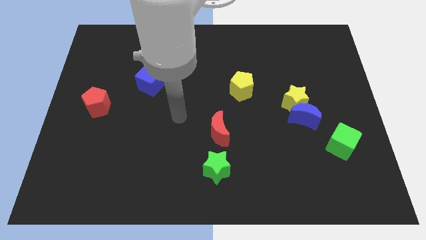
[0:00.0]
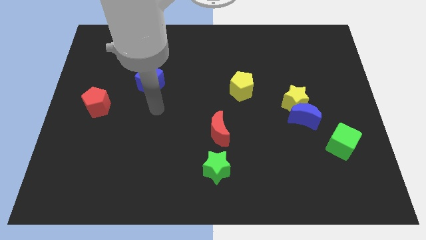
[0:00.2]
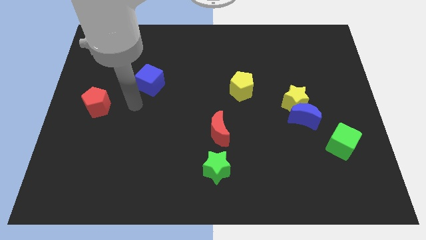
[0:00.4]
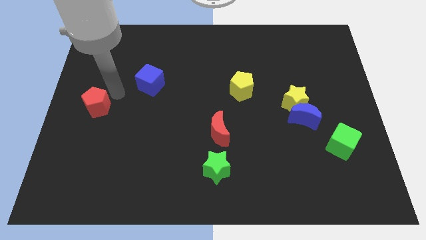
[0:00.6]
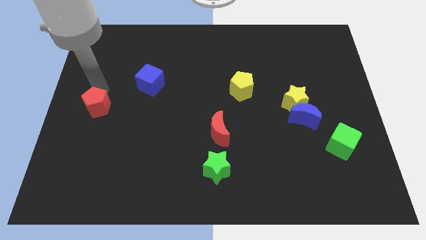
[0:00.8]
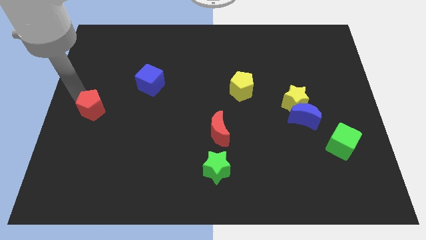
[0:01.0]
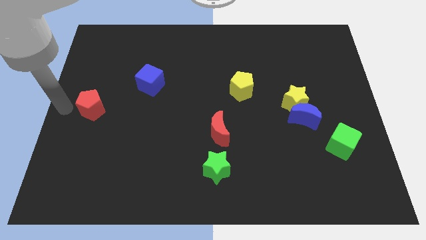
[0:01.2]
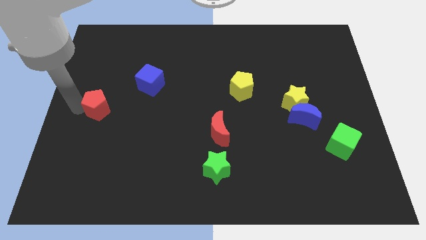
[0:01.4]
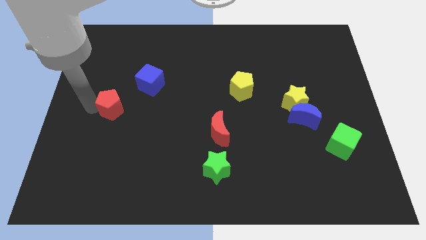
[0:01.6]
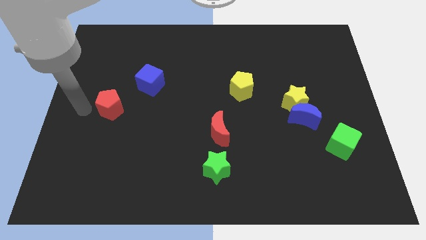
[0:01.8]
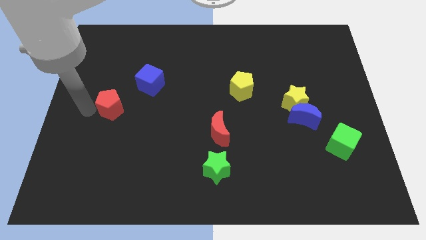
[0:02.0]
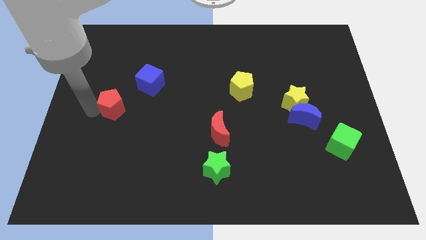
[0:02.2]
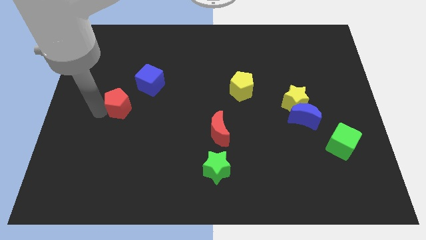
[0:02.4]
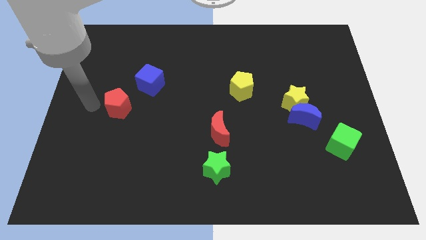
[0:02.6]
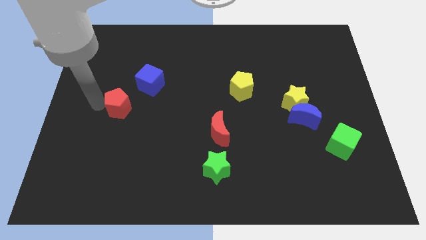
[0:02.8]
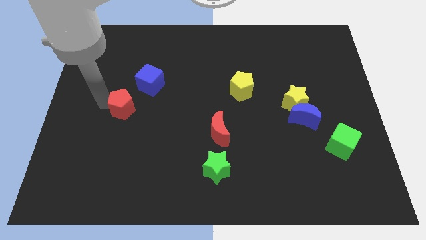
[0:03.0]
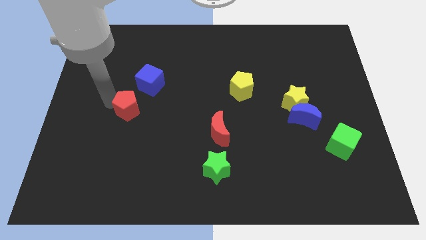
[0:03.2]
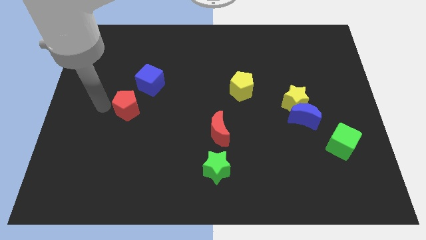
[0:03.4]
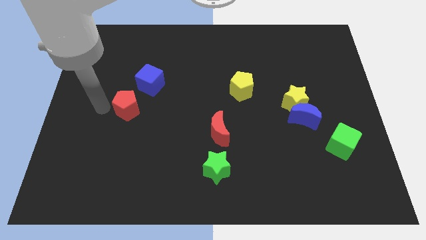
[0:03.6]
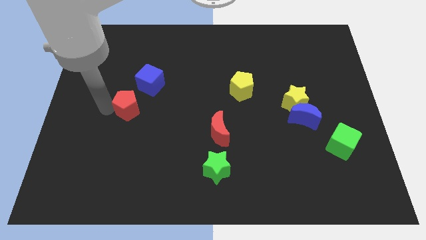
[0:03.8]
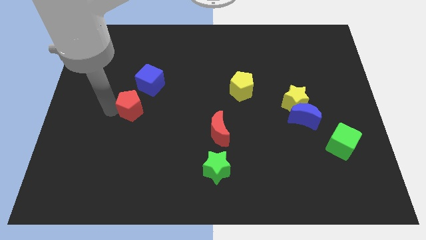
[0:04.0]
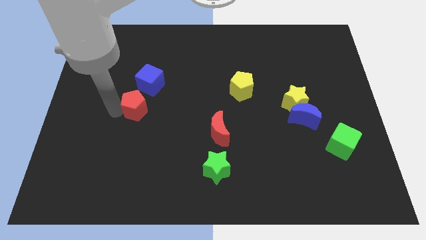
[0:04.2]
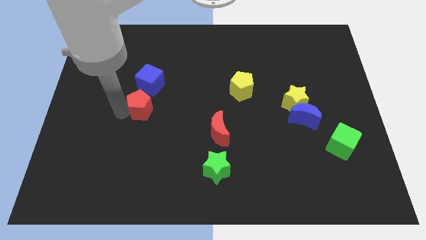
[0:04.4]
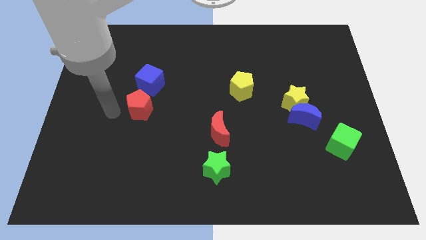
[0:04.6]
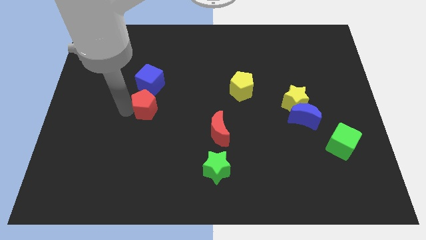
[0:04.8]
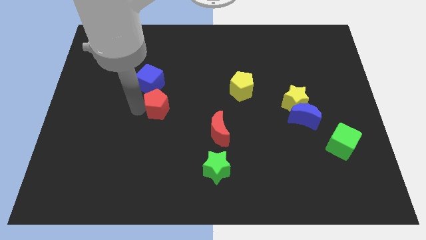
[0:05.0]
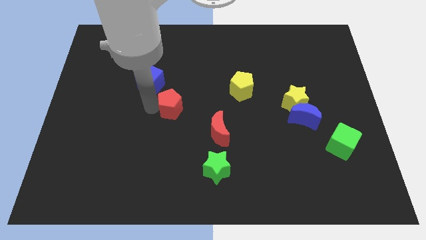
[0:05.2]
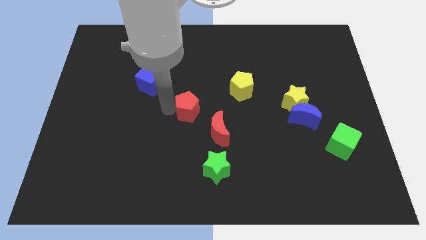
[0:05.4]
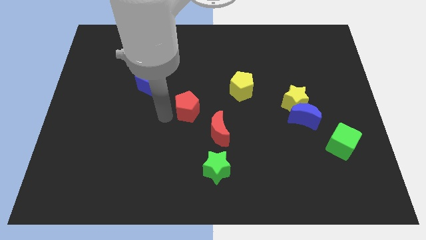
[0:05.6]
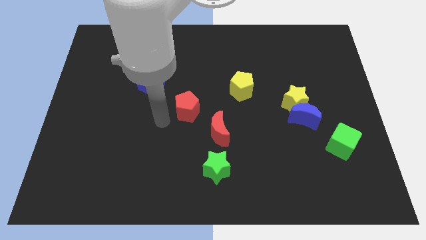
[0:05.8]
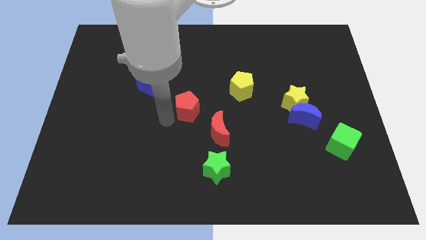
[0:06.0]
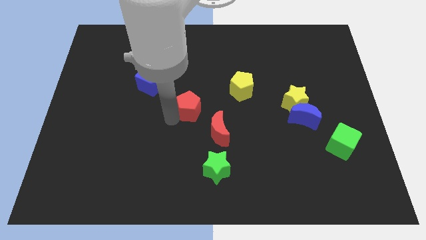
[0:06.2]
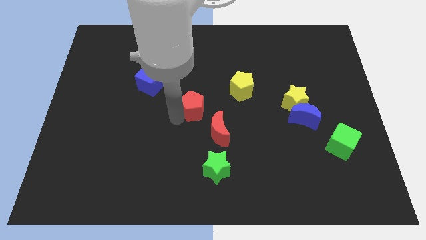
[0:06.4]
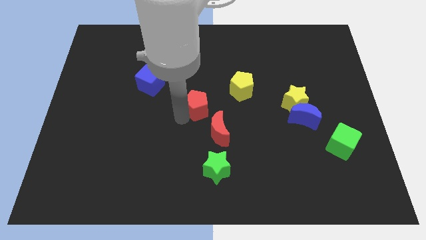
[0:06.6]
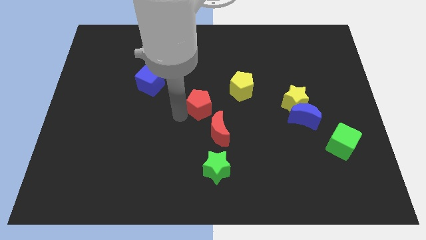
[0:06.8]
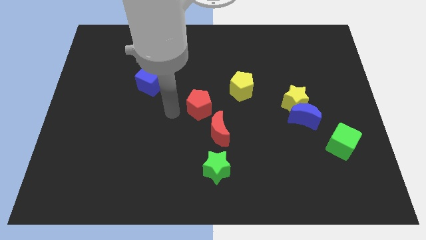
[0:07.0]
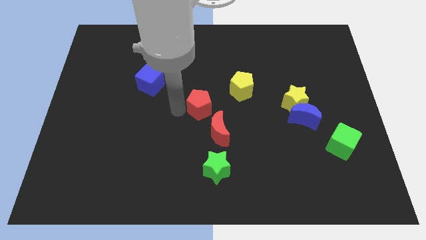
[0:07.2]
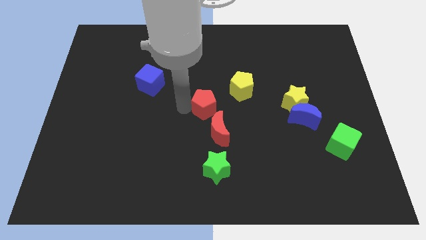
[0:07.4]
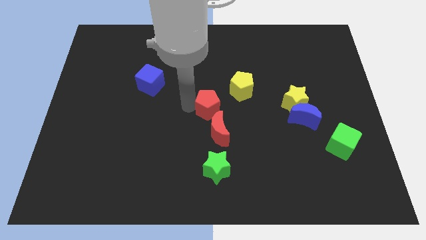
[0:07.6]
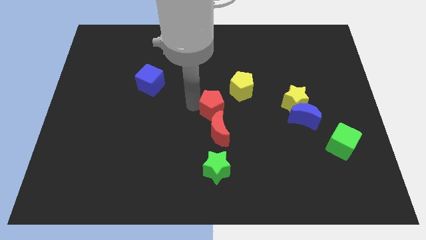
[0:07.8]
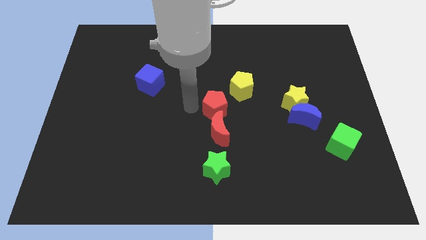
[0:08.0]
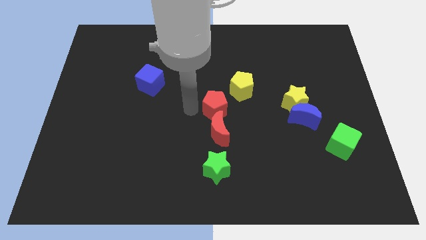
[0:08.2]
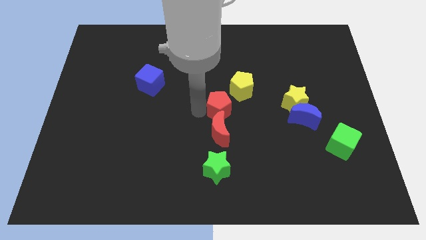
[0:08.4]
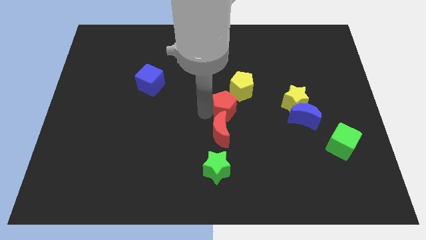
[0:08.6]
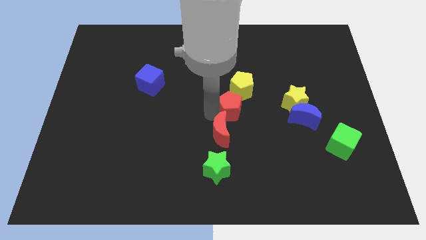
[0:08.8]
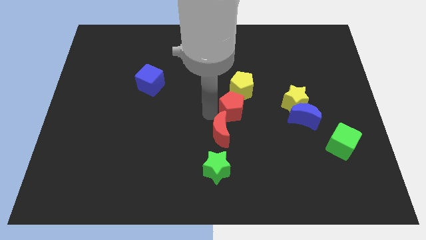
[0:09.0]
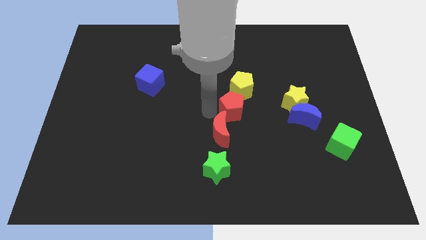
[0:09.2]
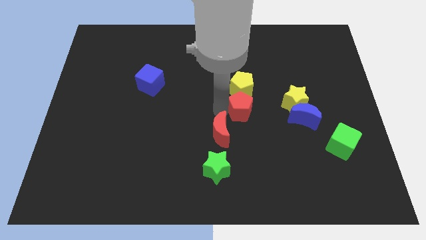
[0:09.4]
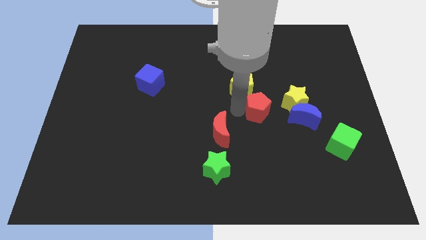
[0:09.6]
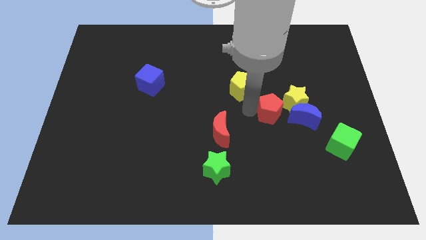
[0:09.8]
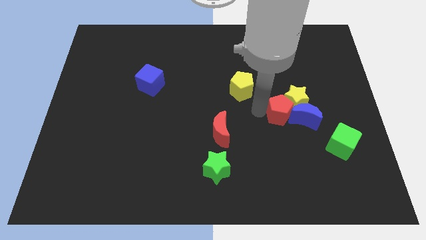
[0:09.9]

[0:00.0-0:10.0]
slide the red pentagon close to the blue moon

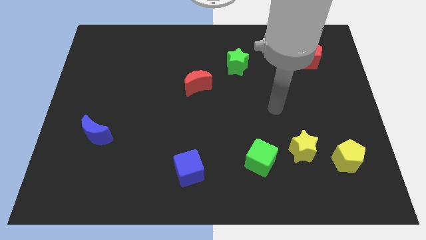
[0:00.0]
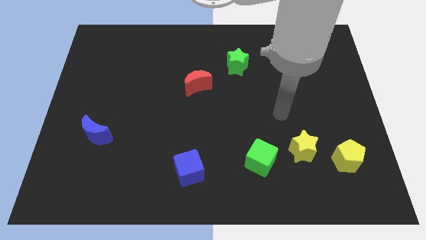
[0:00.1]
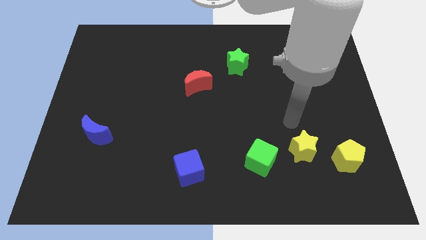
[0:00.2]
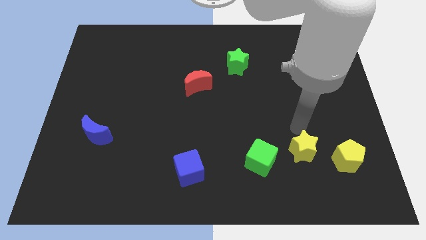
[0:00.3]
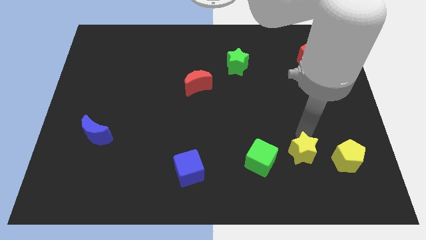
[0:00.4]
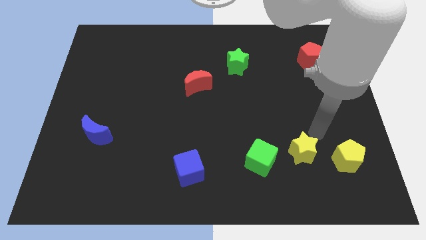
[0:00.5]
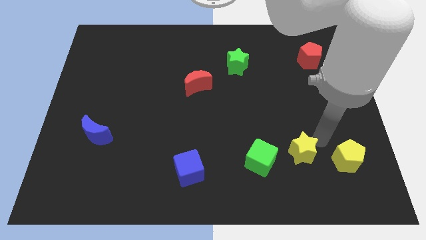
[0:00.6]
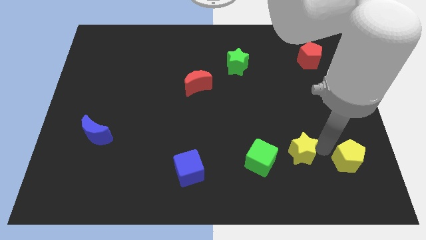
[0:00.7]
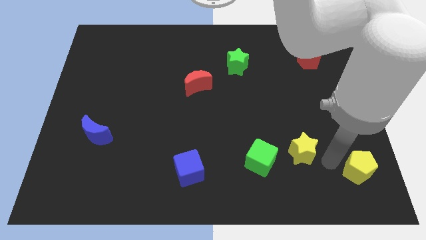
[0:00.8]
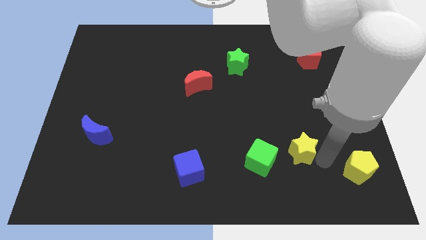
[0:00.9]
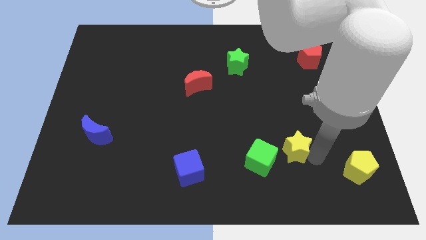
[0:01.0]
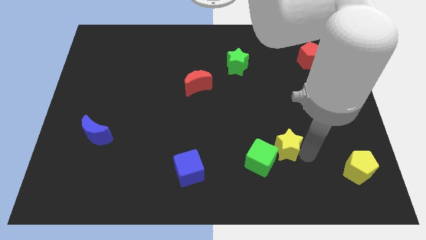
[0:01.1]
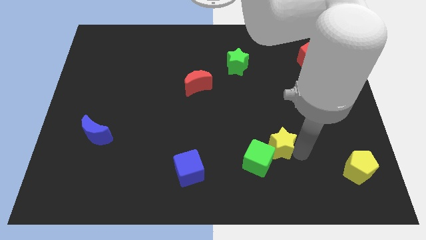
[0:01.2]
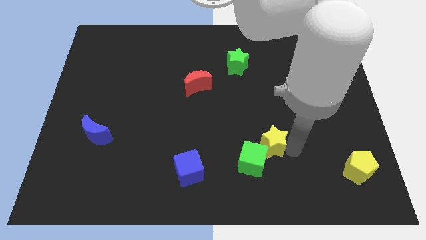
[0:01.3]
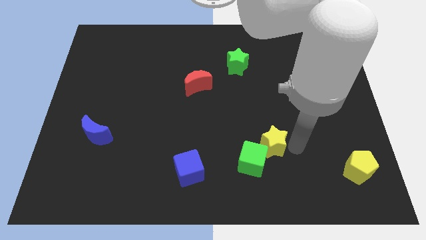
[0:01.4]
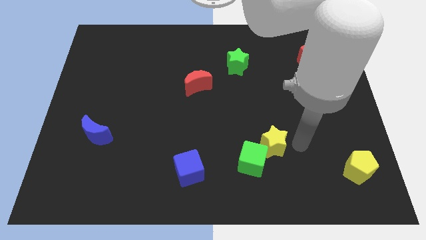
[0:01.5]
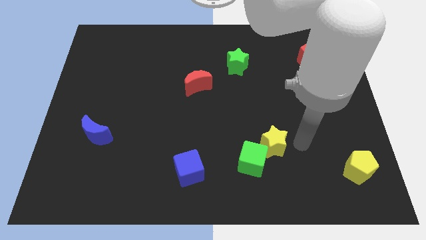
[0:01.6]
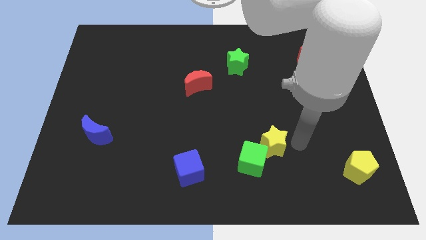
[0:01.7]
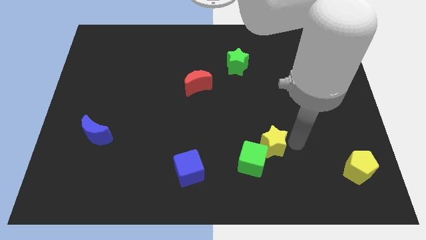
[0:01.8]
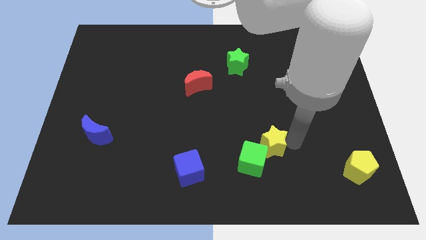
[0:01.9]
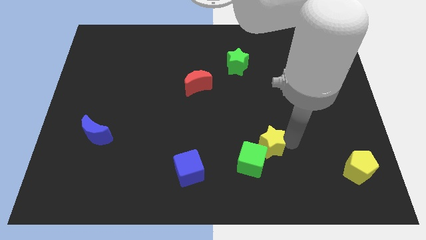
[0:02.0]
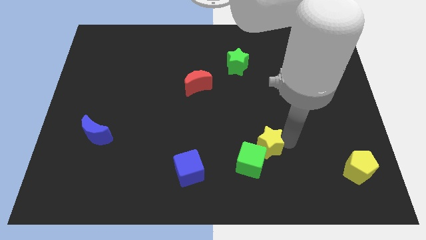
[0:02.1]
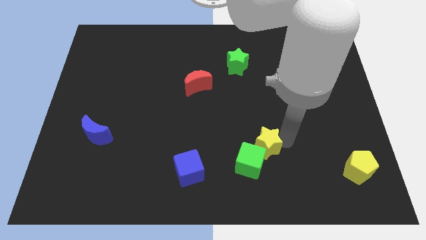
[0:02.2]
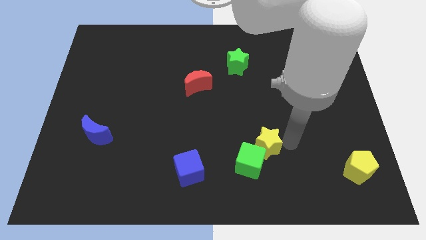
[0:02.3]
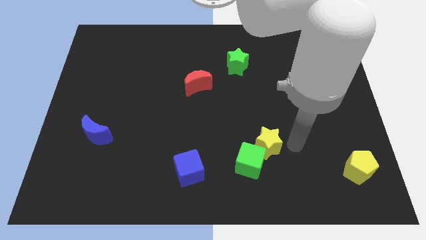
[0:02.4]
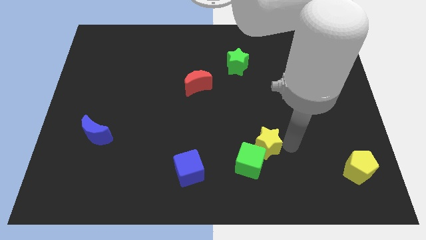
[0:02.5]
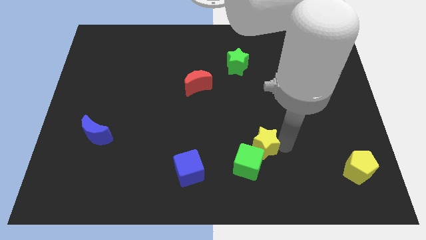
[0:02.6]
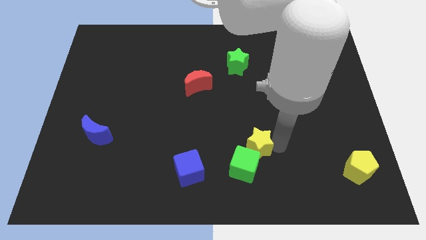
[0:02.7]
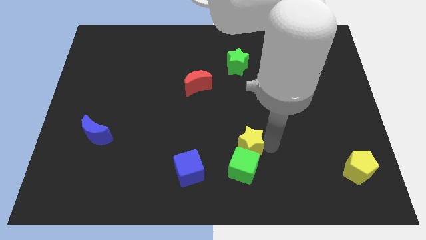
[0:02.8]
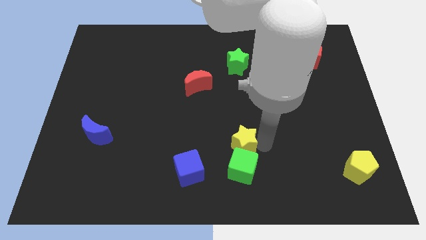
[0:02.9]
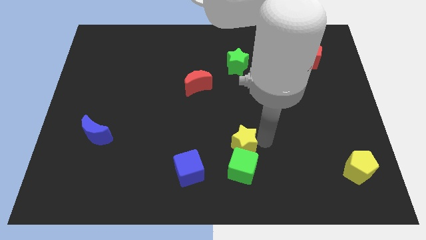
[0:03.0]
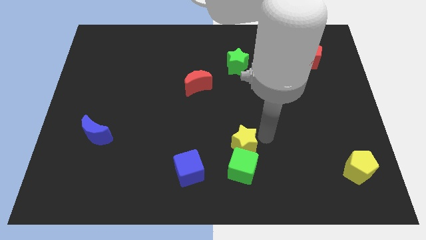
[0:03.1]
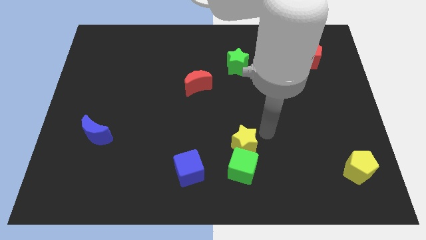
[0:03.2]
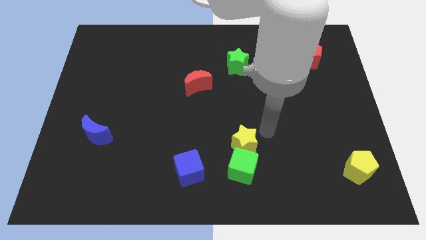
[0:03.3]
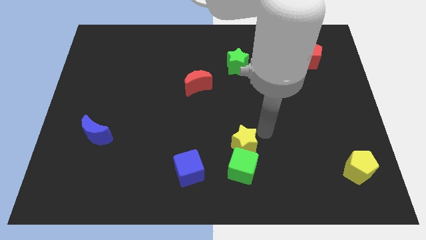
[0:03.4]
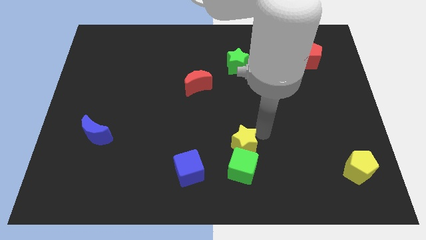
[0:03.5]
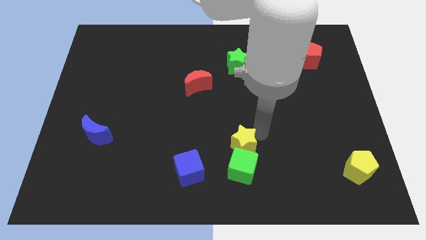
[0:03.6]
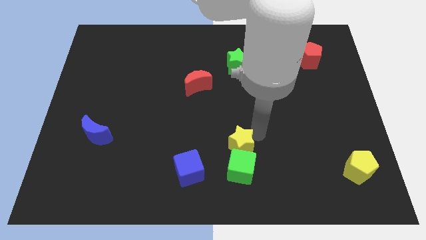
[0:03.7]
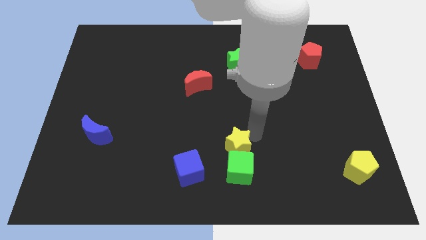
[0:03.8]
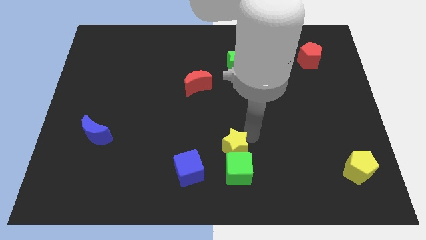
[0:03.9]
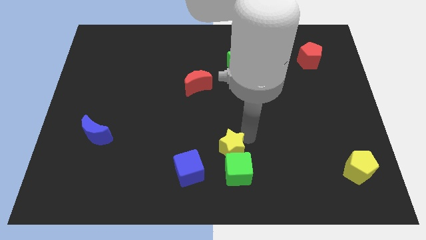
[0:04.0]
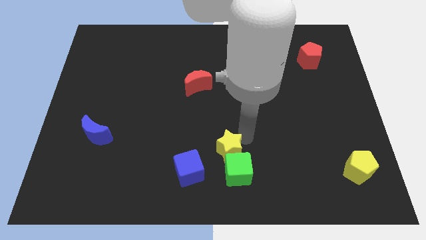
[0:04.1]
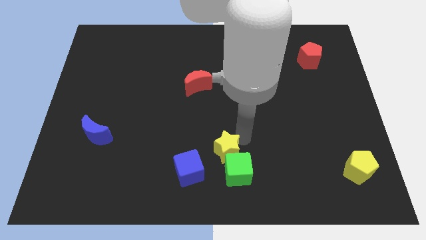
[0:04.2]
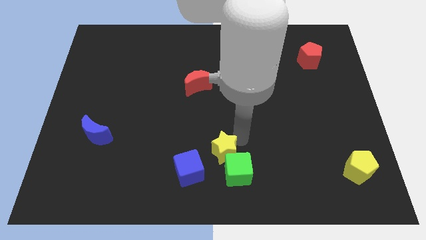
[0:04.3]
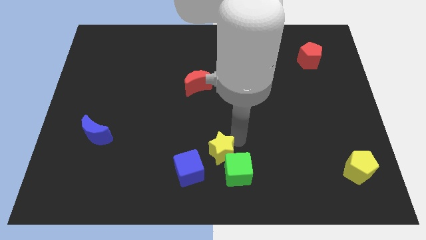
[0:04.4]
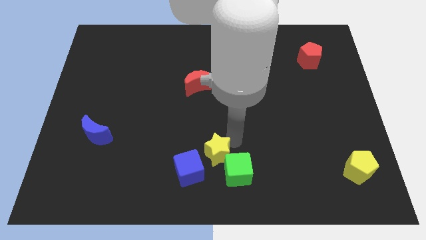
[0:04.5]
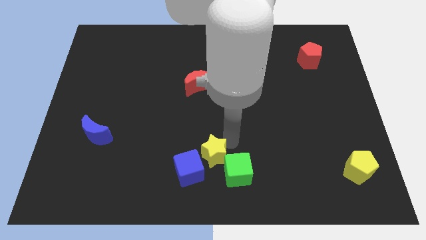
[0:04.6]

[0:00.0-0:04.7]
move the yellow star next to the blue cube
